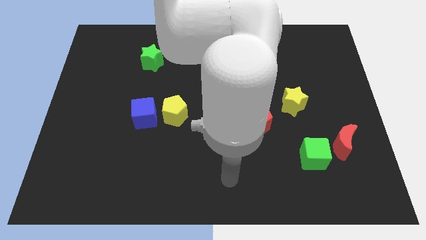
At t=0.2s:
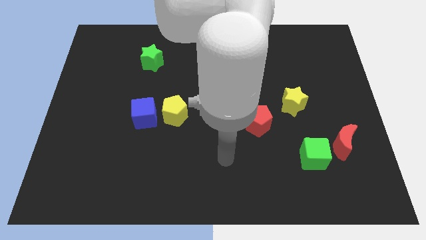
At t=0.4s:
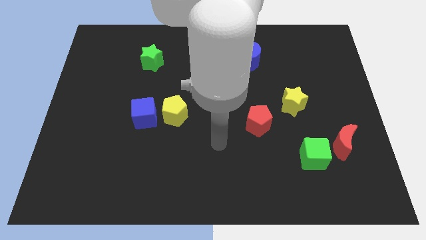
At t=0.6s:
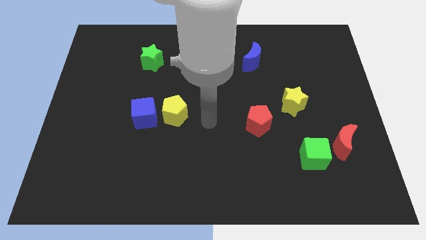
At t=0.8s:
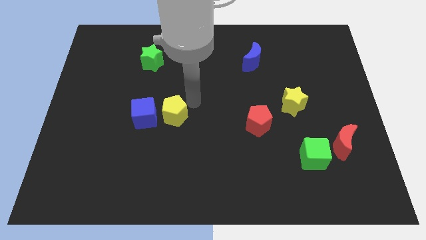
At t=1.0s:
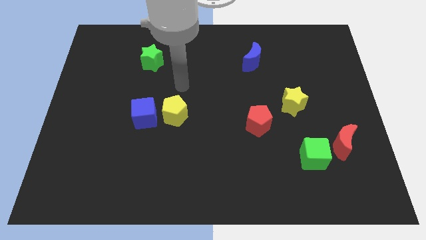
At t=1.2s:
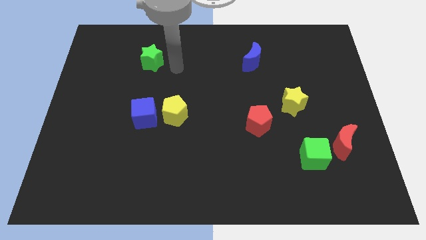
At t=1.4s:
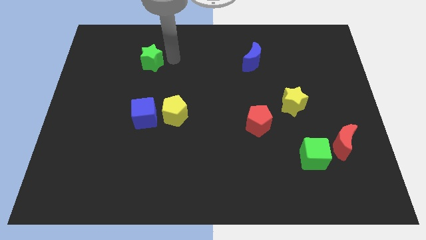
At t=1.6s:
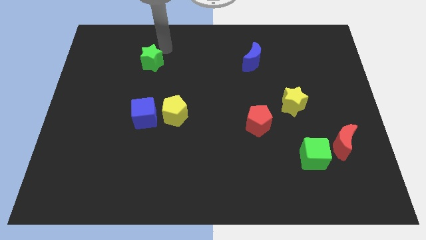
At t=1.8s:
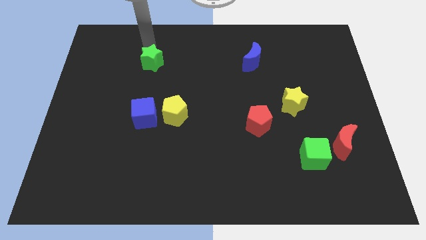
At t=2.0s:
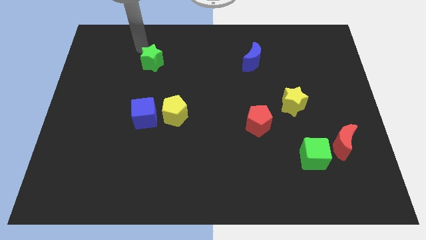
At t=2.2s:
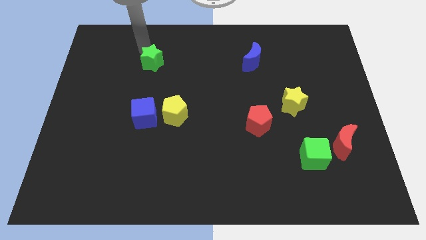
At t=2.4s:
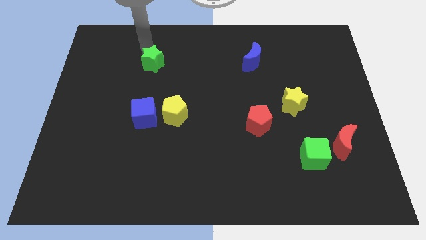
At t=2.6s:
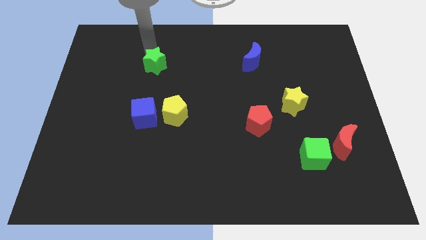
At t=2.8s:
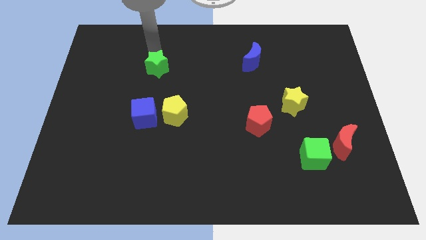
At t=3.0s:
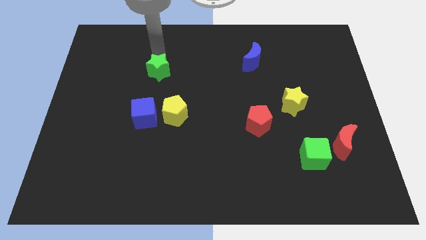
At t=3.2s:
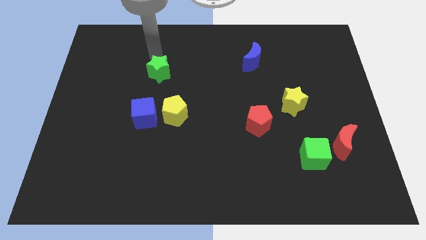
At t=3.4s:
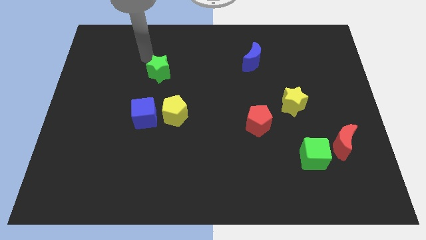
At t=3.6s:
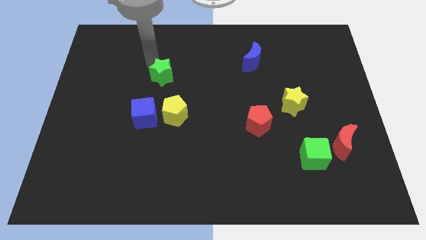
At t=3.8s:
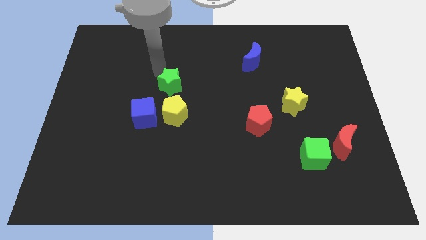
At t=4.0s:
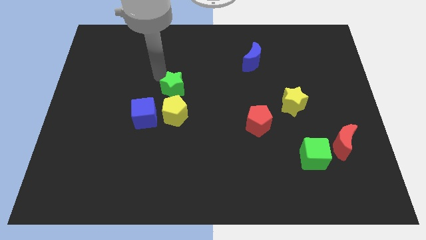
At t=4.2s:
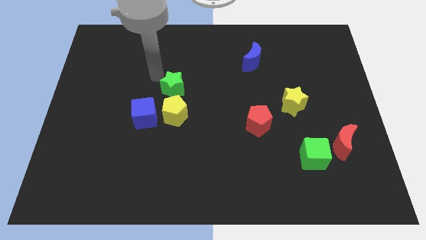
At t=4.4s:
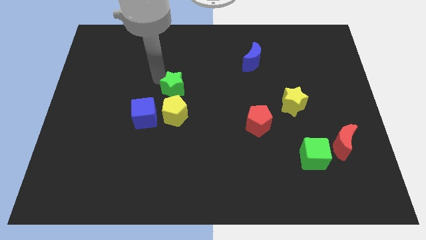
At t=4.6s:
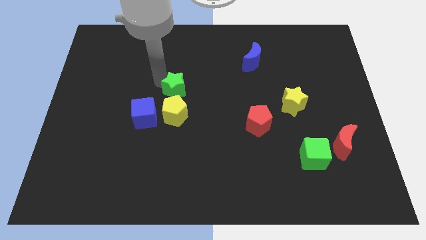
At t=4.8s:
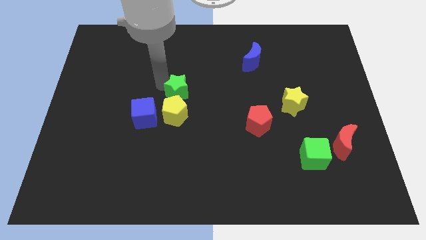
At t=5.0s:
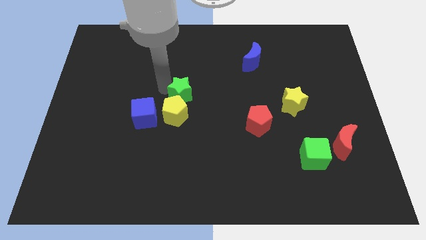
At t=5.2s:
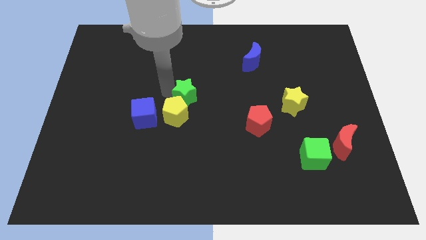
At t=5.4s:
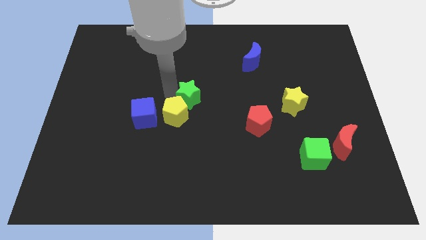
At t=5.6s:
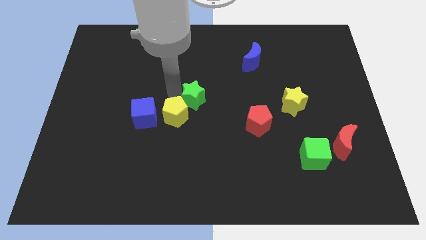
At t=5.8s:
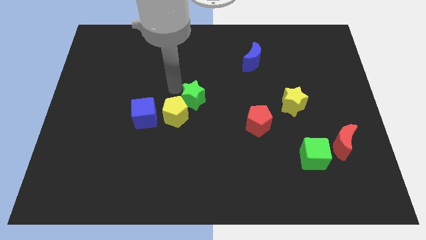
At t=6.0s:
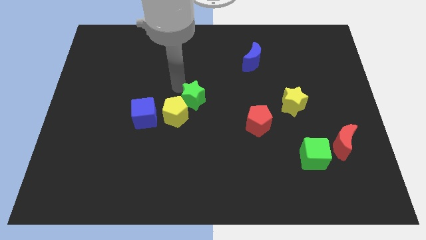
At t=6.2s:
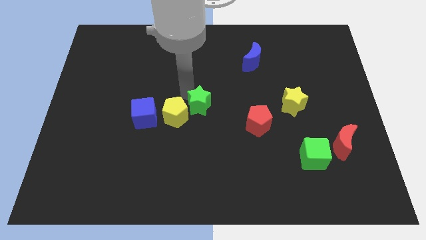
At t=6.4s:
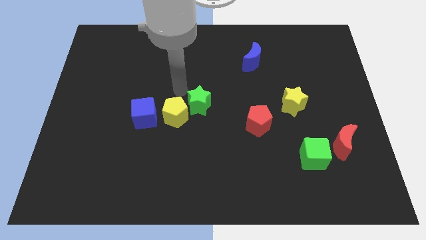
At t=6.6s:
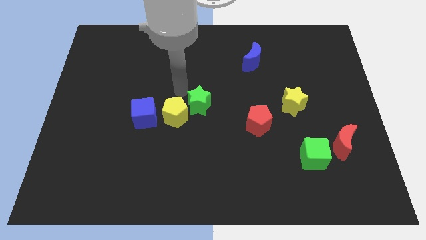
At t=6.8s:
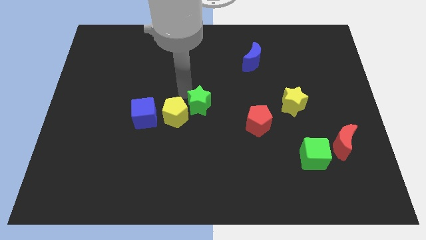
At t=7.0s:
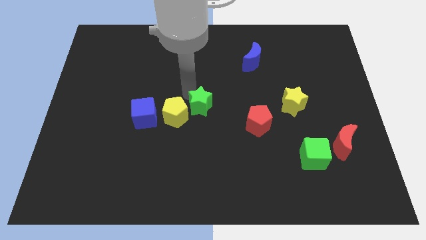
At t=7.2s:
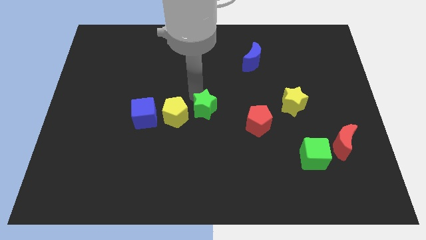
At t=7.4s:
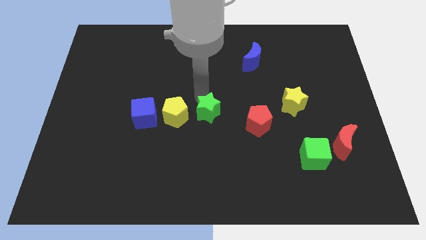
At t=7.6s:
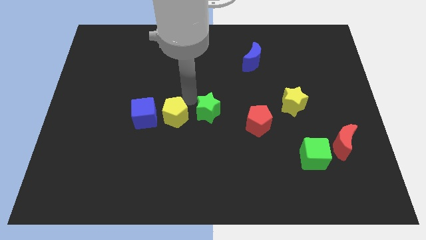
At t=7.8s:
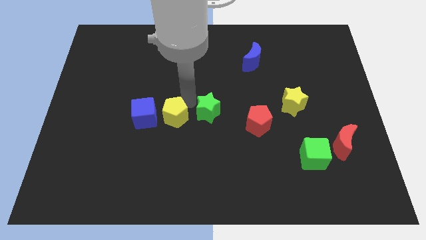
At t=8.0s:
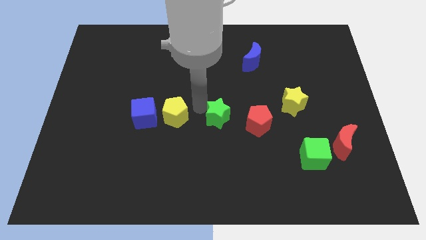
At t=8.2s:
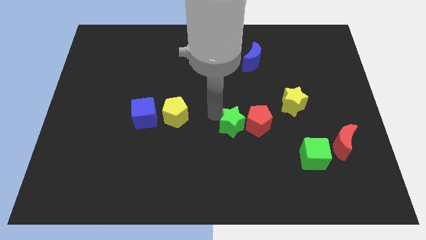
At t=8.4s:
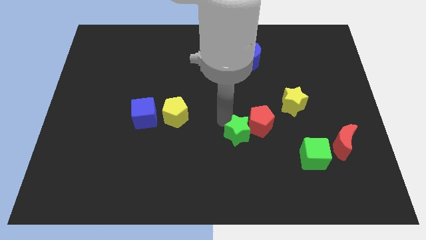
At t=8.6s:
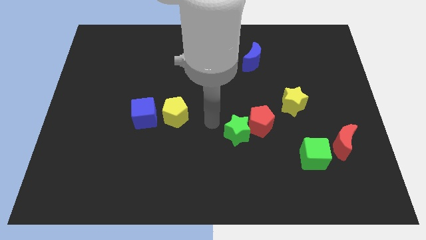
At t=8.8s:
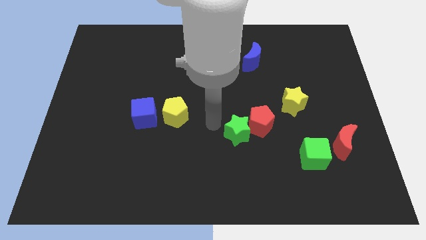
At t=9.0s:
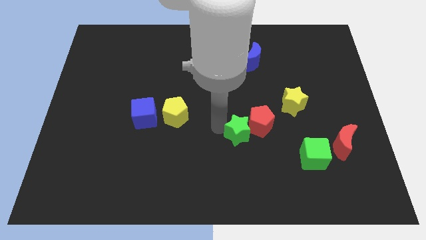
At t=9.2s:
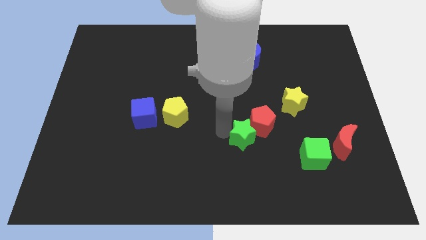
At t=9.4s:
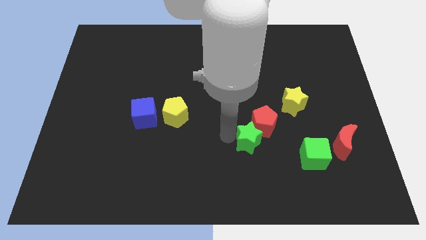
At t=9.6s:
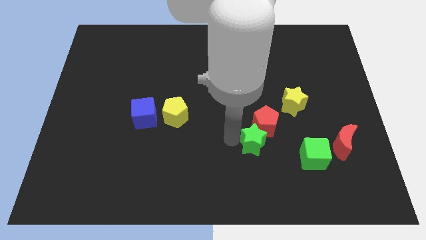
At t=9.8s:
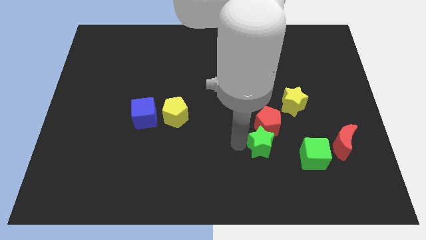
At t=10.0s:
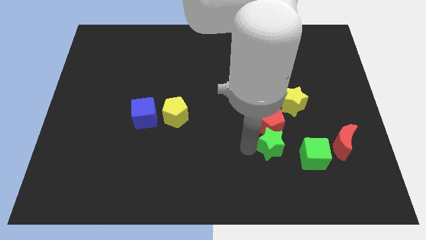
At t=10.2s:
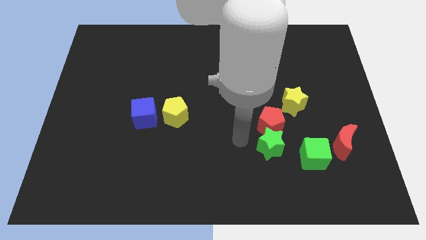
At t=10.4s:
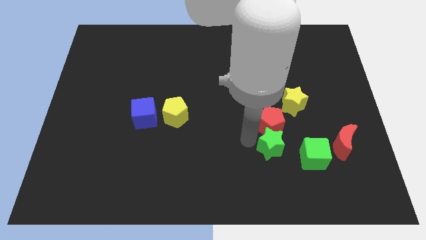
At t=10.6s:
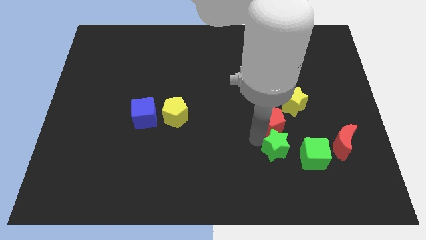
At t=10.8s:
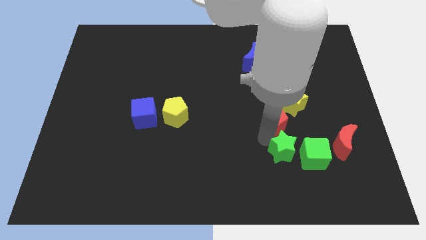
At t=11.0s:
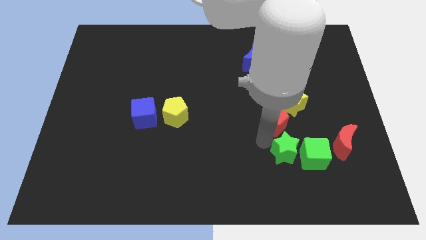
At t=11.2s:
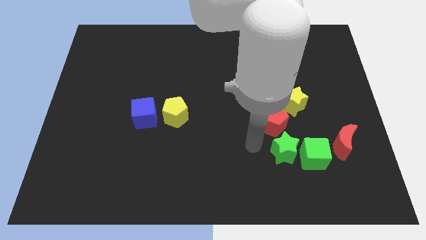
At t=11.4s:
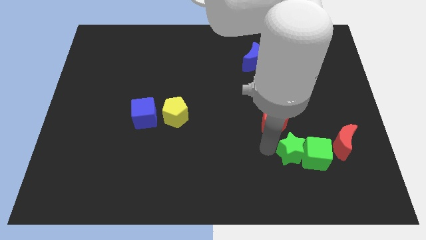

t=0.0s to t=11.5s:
move the green star close to the green cube

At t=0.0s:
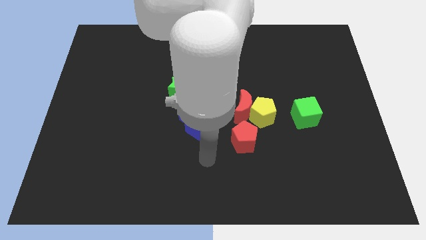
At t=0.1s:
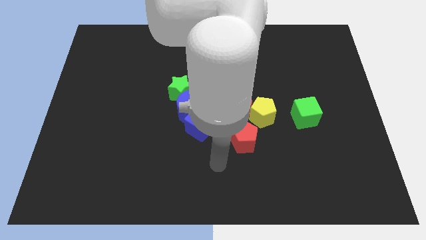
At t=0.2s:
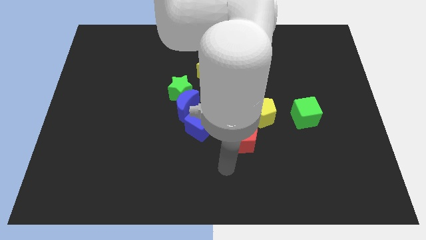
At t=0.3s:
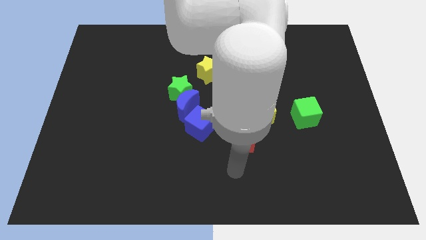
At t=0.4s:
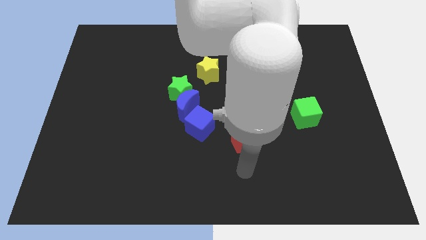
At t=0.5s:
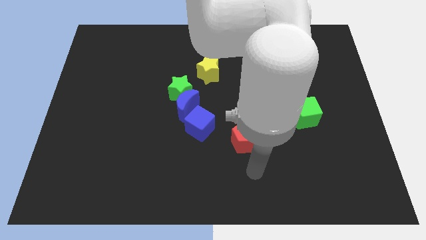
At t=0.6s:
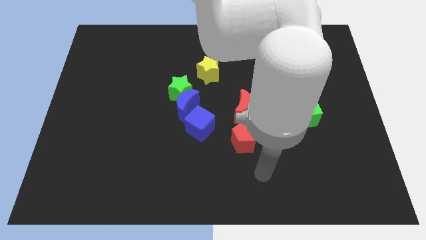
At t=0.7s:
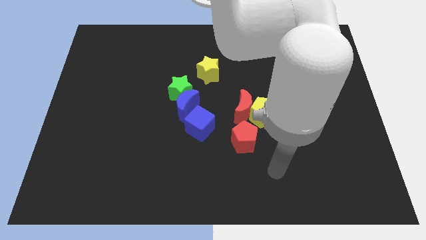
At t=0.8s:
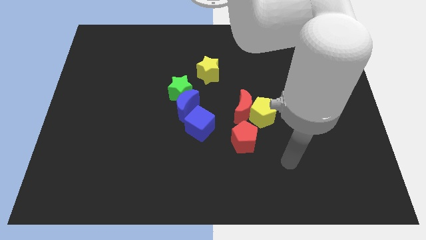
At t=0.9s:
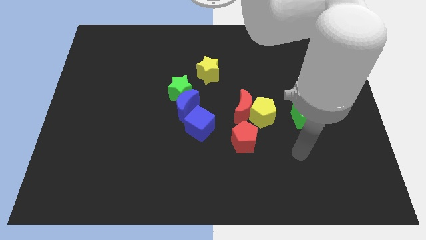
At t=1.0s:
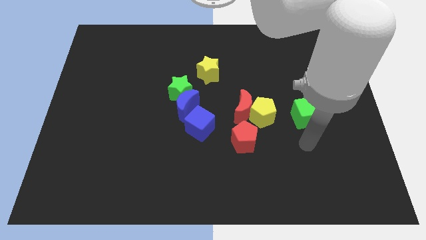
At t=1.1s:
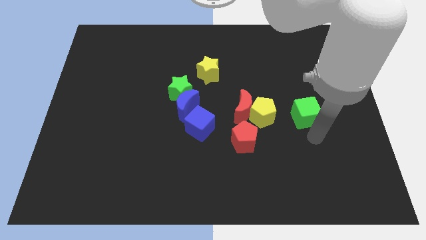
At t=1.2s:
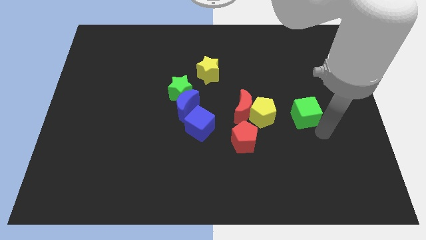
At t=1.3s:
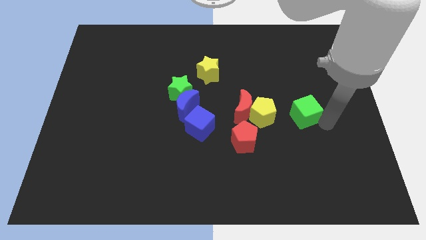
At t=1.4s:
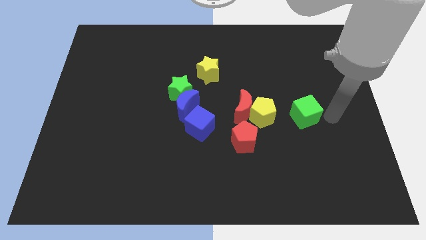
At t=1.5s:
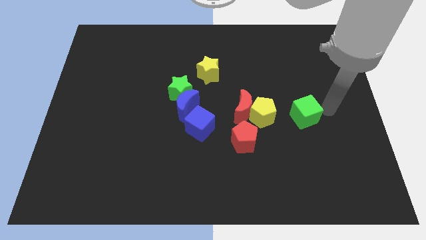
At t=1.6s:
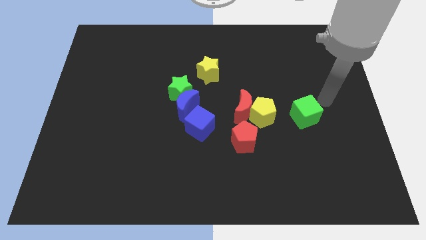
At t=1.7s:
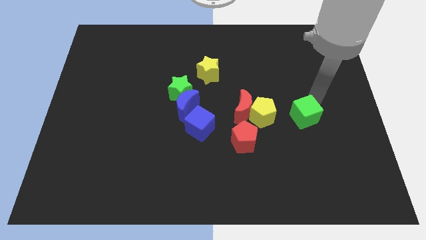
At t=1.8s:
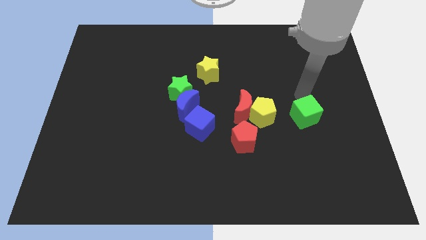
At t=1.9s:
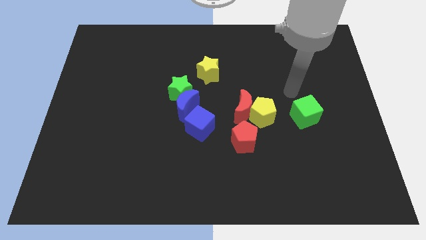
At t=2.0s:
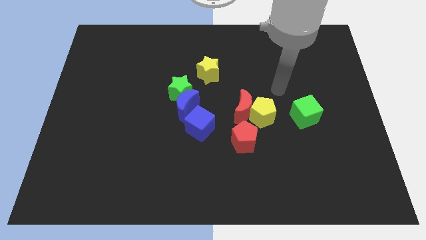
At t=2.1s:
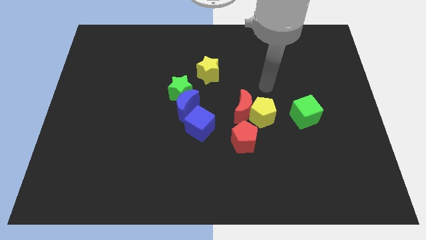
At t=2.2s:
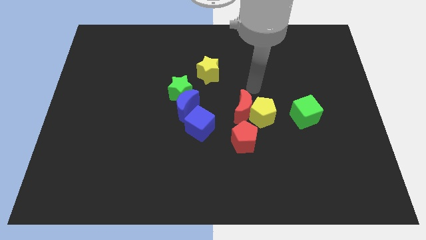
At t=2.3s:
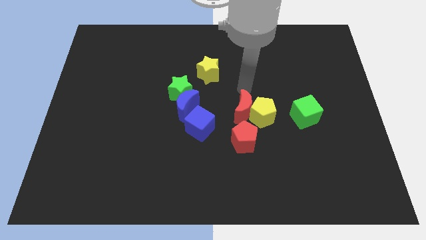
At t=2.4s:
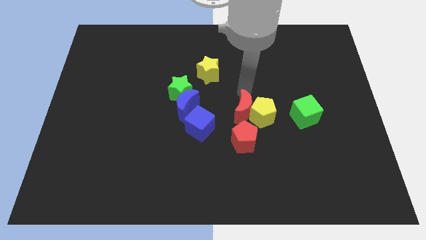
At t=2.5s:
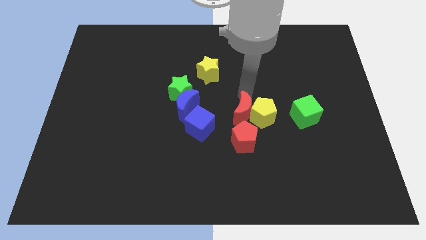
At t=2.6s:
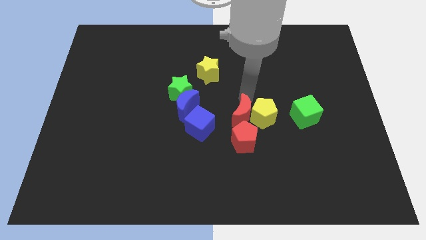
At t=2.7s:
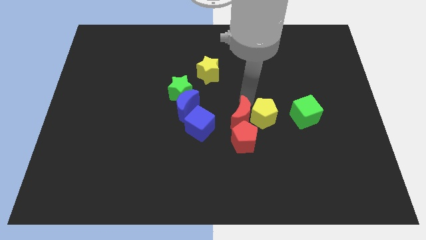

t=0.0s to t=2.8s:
slide the red moon to the red pentagon
